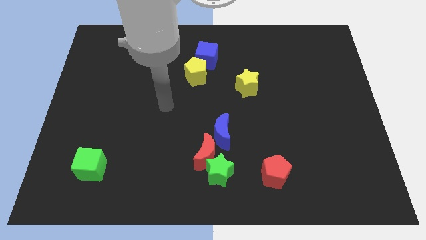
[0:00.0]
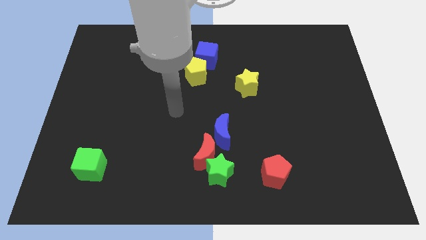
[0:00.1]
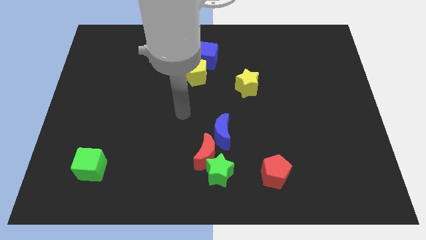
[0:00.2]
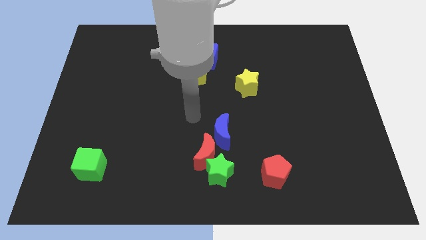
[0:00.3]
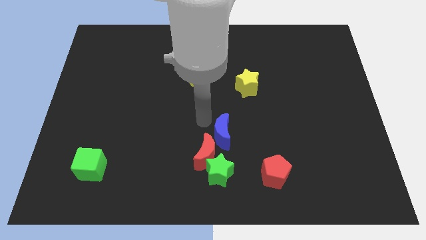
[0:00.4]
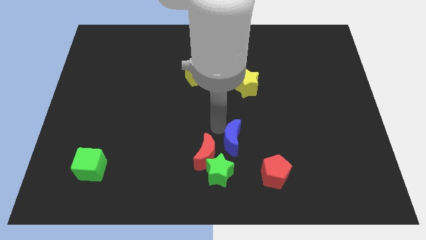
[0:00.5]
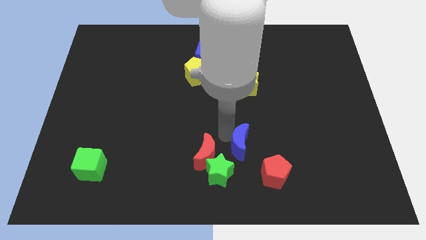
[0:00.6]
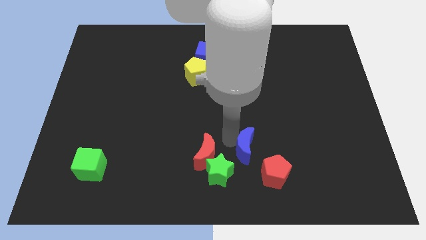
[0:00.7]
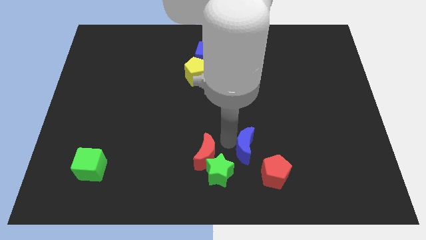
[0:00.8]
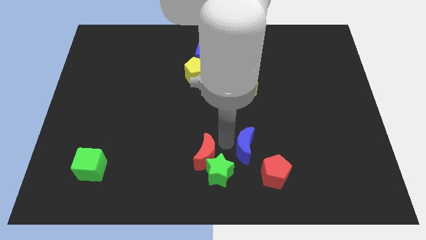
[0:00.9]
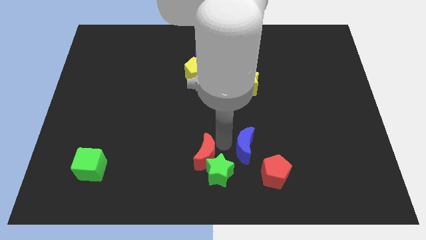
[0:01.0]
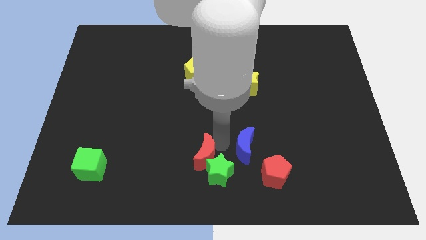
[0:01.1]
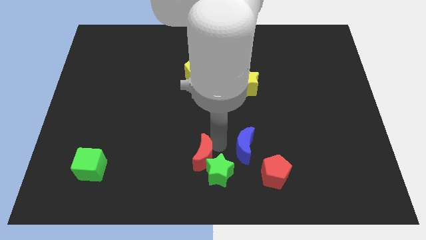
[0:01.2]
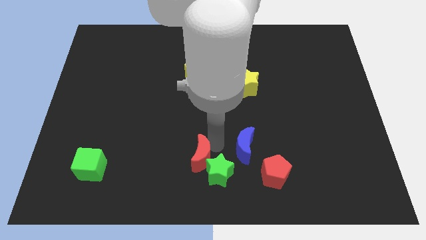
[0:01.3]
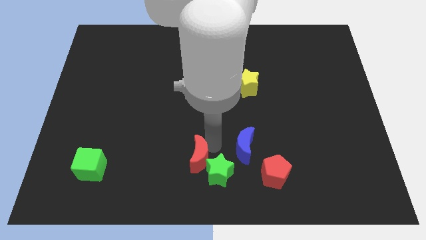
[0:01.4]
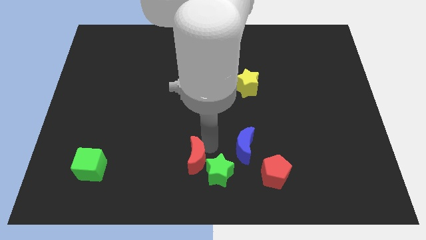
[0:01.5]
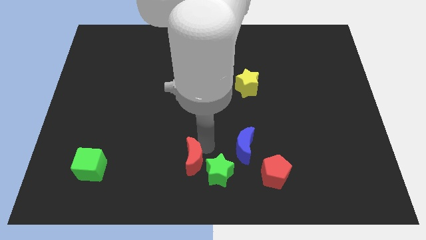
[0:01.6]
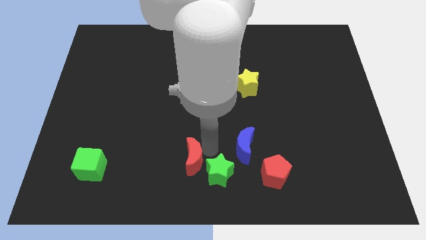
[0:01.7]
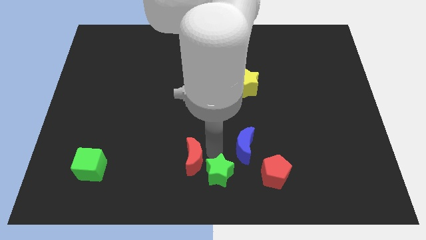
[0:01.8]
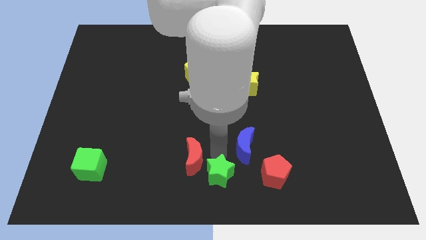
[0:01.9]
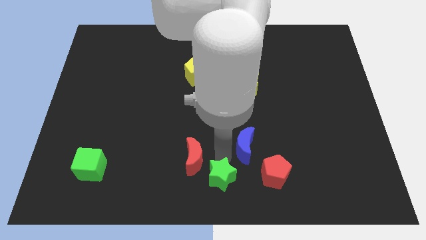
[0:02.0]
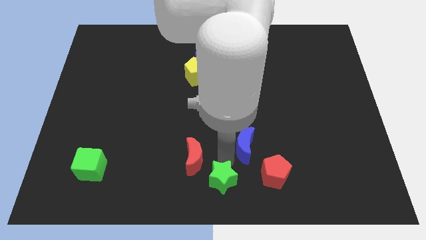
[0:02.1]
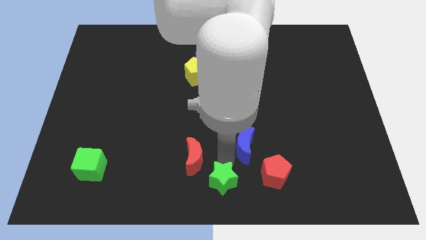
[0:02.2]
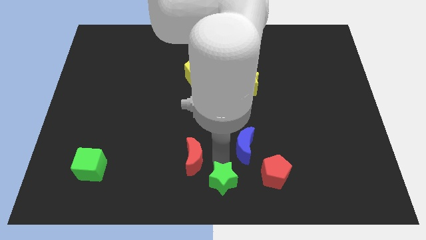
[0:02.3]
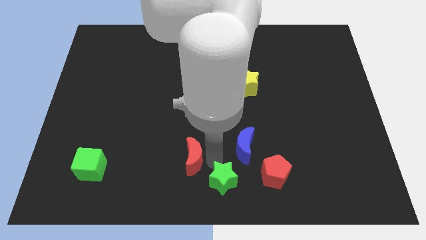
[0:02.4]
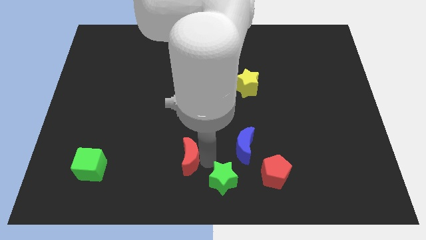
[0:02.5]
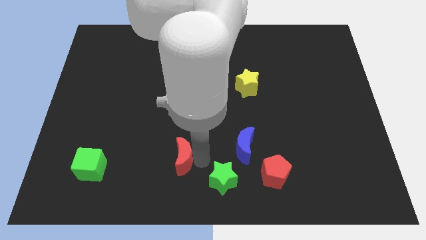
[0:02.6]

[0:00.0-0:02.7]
pull the red moon apart from the green star and blue moon

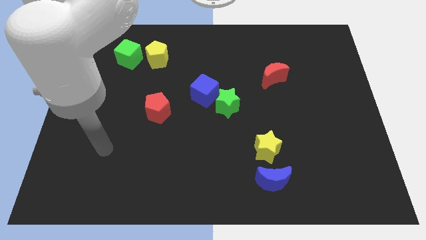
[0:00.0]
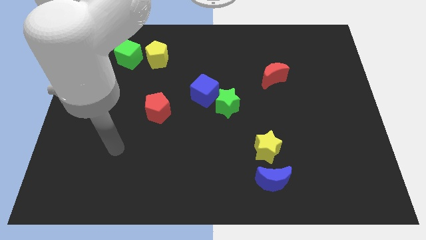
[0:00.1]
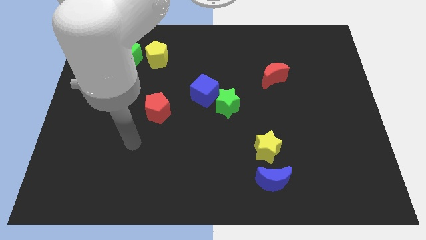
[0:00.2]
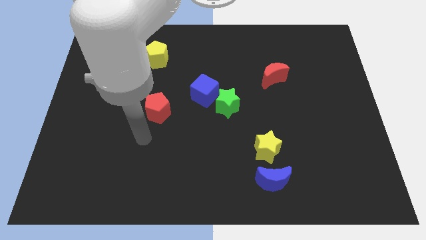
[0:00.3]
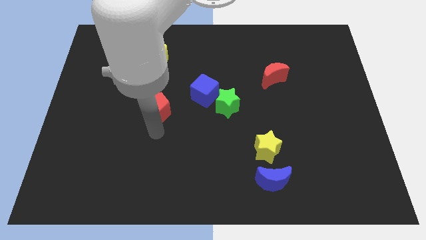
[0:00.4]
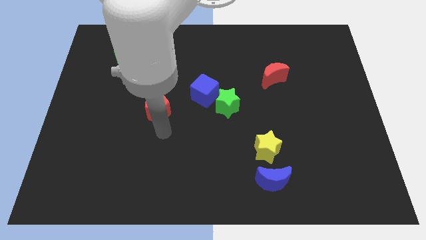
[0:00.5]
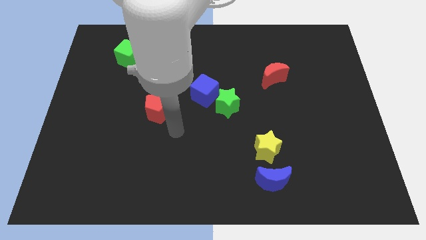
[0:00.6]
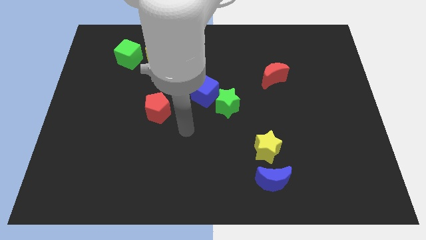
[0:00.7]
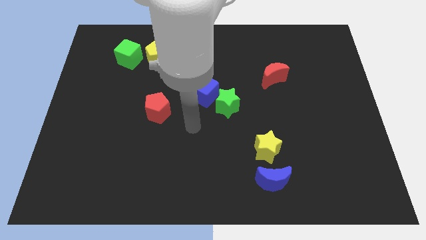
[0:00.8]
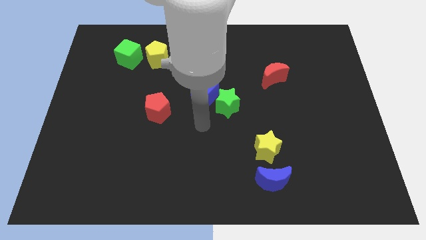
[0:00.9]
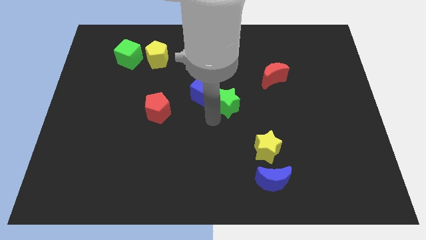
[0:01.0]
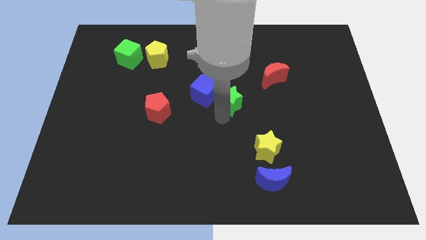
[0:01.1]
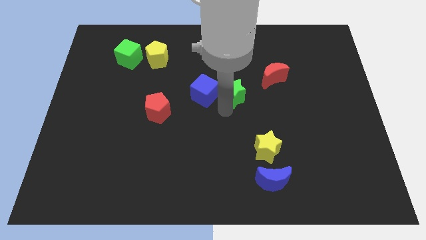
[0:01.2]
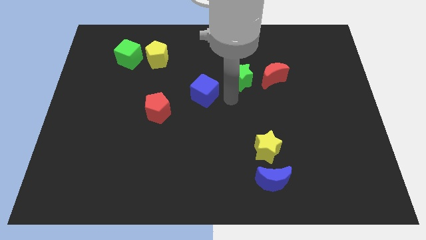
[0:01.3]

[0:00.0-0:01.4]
separate the blue cube from the green star

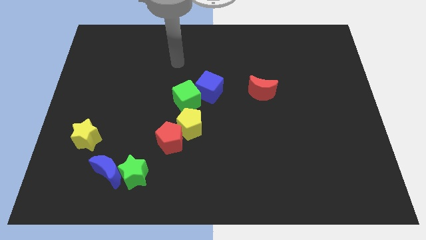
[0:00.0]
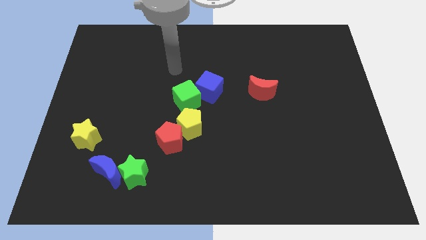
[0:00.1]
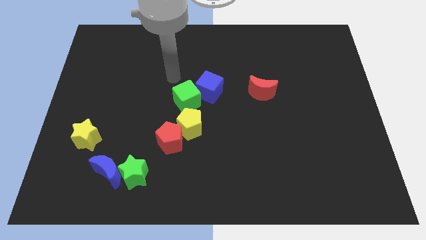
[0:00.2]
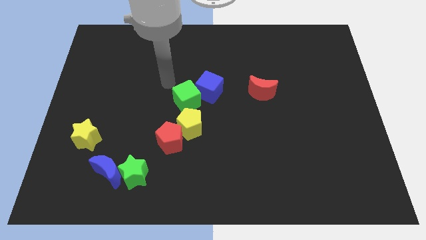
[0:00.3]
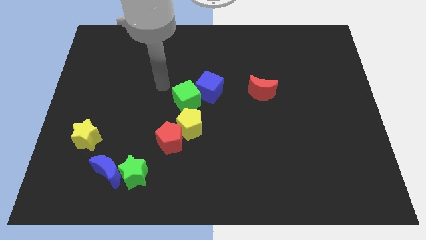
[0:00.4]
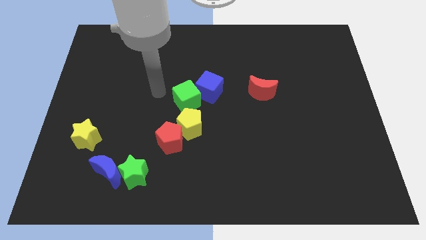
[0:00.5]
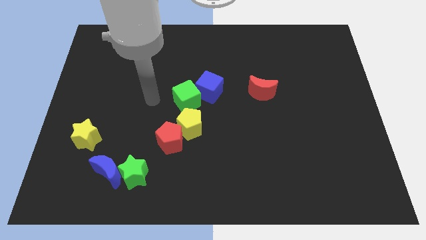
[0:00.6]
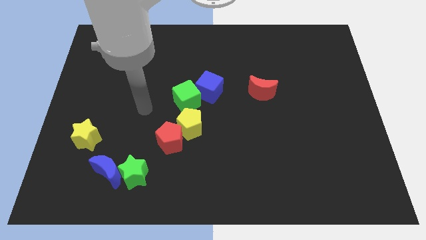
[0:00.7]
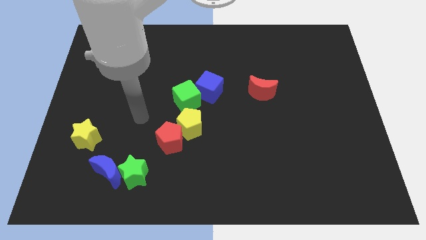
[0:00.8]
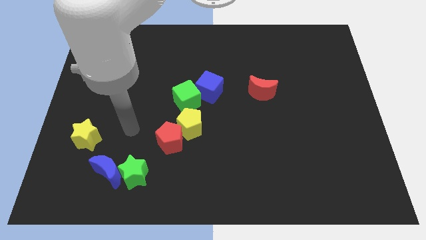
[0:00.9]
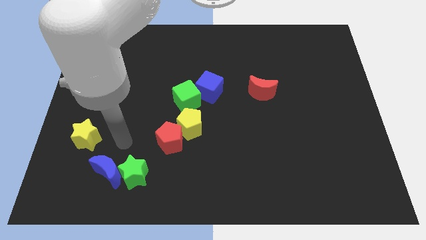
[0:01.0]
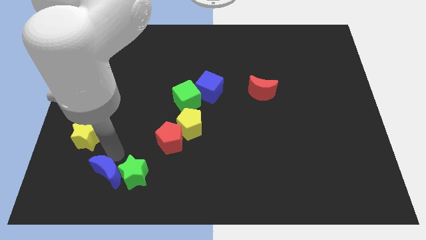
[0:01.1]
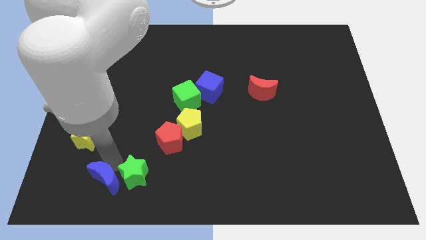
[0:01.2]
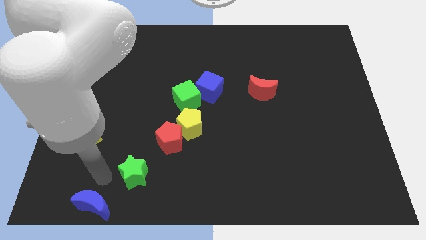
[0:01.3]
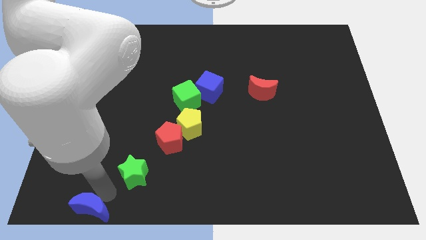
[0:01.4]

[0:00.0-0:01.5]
move the green star away from the blue moon

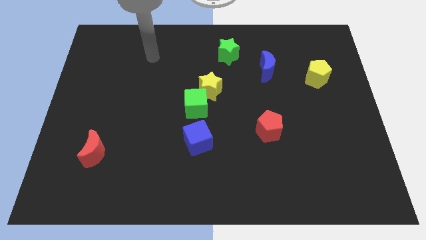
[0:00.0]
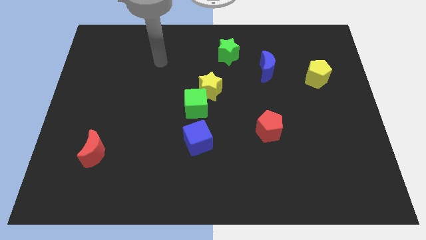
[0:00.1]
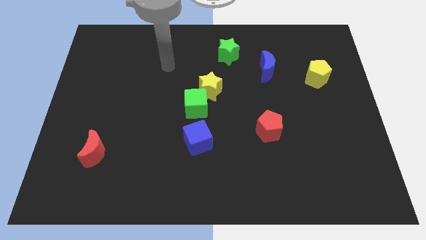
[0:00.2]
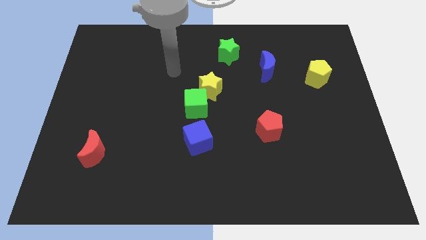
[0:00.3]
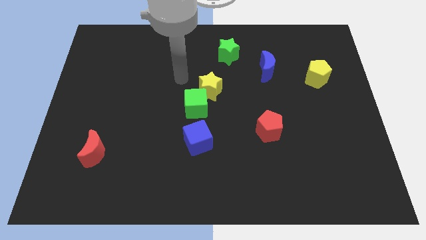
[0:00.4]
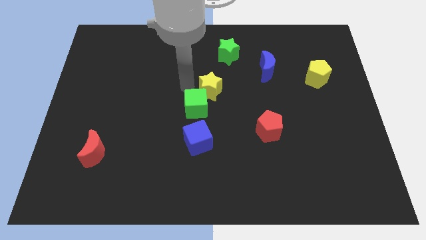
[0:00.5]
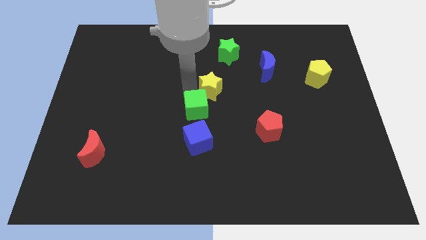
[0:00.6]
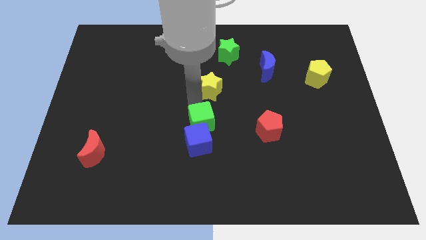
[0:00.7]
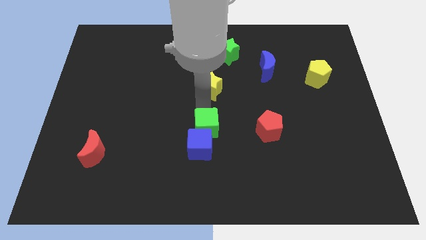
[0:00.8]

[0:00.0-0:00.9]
pull the yellow star apart from the green cube

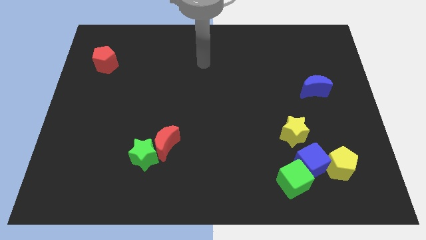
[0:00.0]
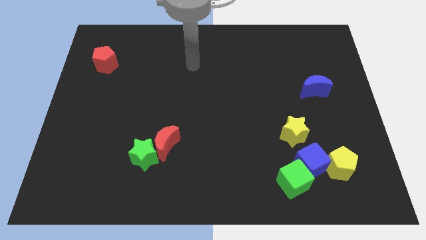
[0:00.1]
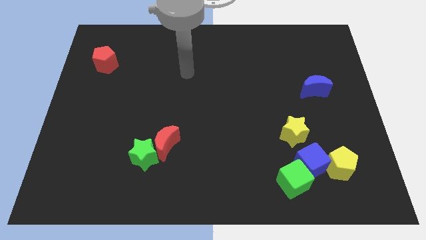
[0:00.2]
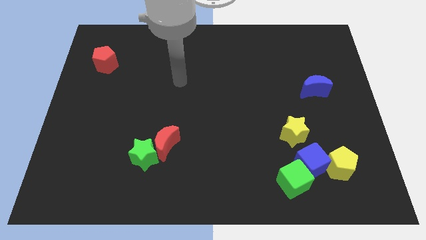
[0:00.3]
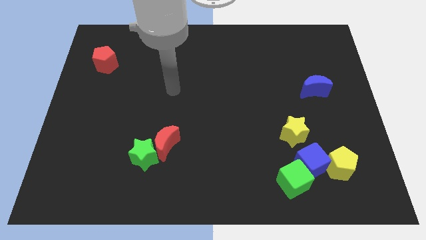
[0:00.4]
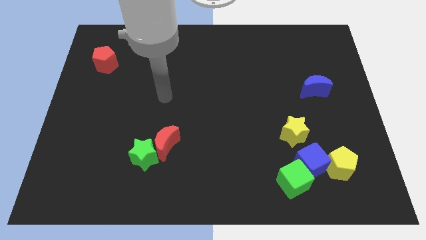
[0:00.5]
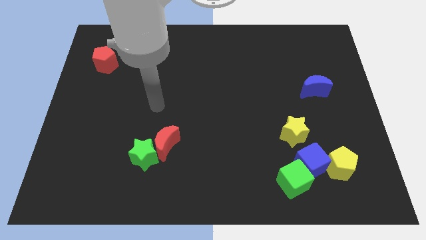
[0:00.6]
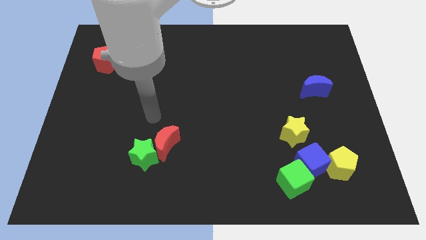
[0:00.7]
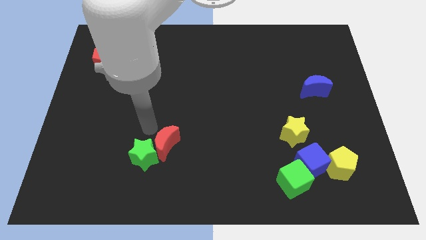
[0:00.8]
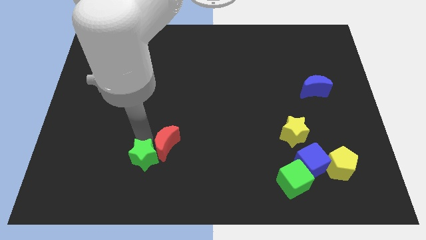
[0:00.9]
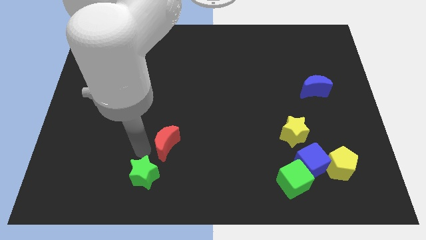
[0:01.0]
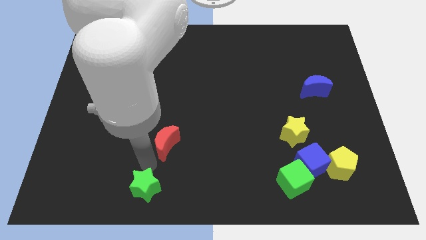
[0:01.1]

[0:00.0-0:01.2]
move the red moon away from the green star

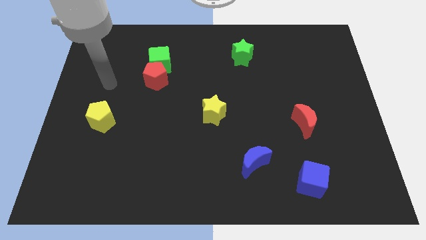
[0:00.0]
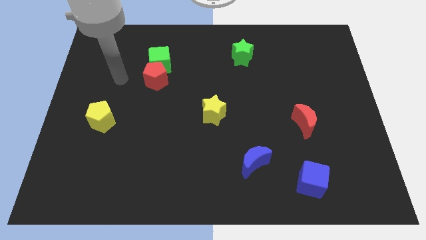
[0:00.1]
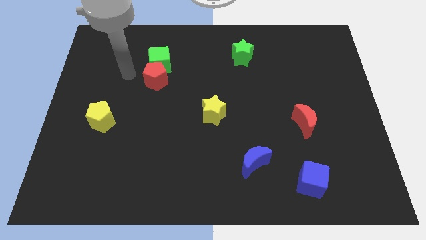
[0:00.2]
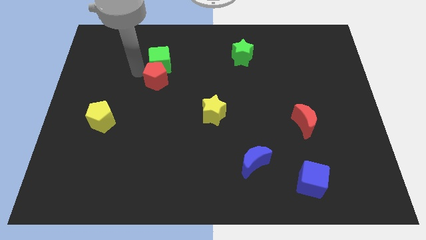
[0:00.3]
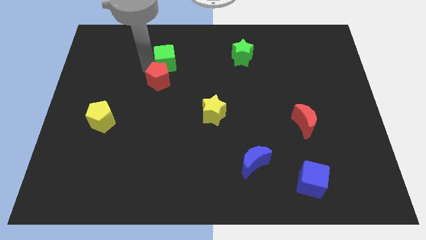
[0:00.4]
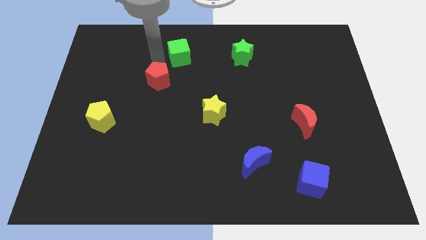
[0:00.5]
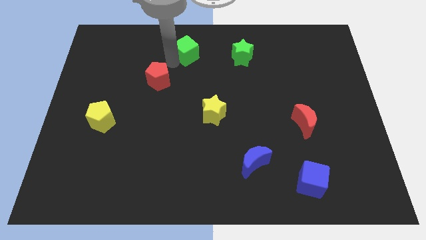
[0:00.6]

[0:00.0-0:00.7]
move the red pentagon away from the green cube

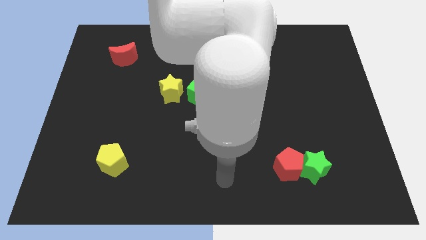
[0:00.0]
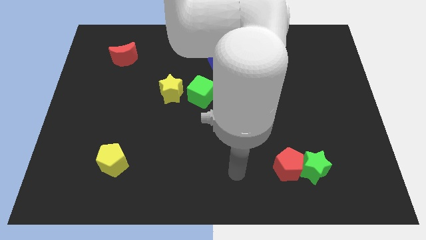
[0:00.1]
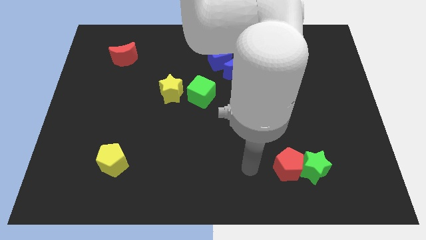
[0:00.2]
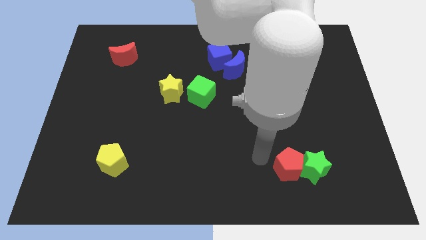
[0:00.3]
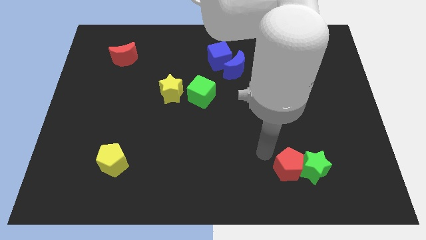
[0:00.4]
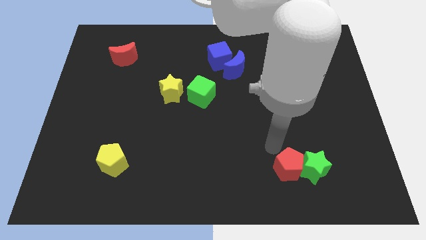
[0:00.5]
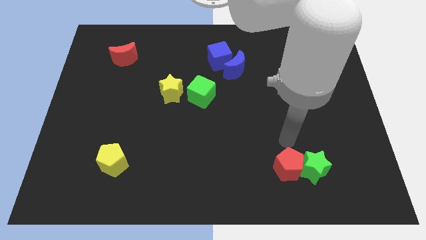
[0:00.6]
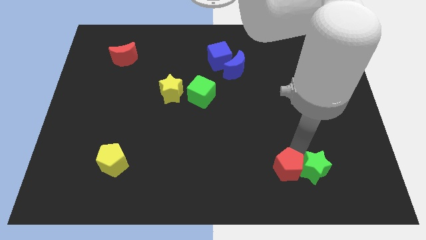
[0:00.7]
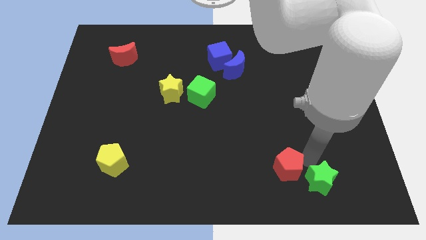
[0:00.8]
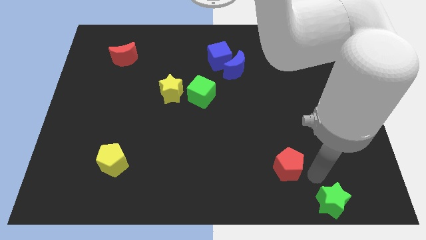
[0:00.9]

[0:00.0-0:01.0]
pull the red pentagon apart from the green star
